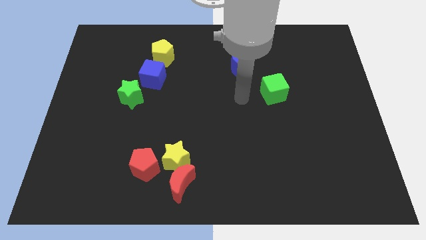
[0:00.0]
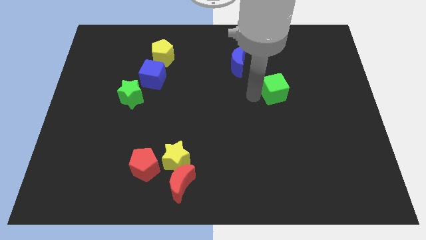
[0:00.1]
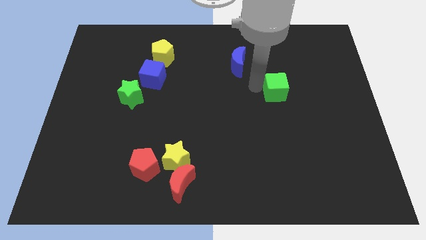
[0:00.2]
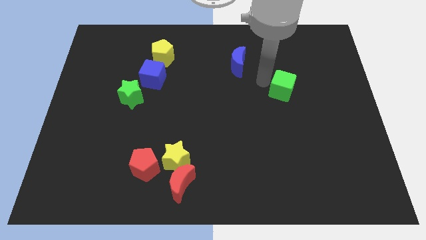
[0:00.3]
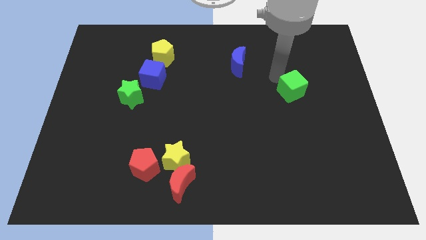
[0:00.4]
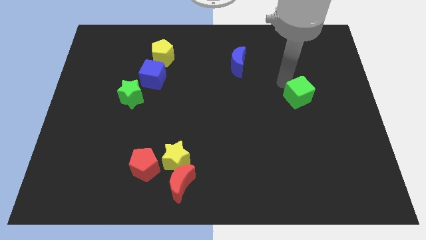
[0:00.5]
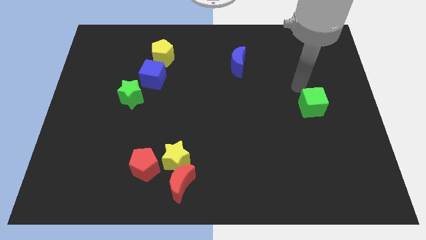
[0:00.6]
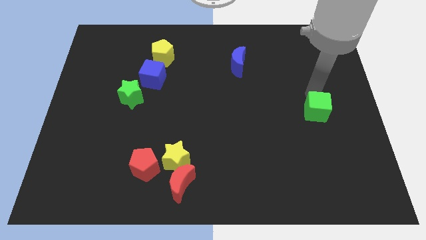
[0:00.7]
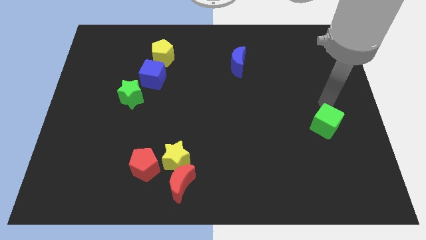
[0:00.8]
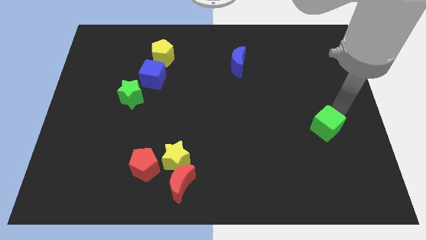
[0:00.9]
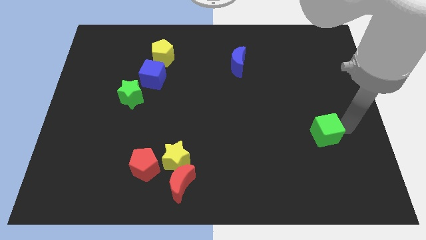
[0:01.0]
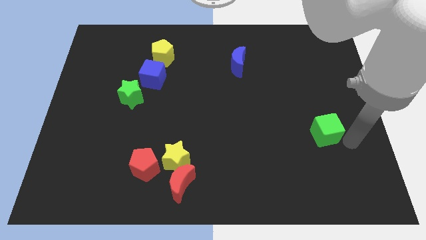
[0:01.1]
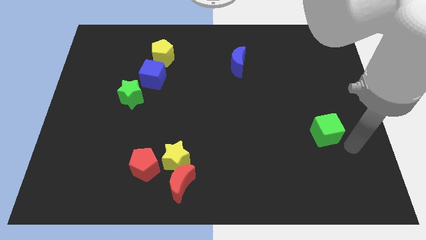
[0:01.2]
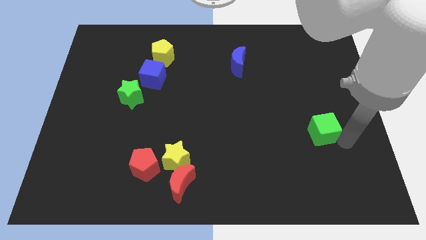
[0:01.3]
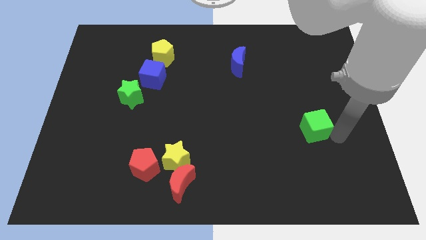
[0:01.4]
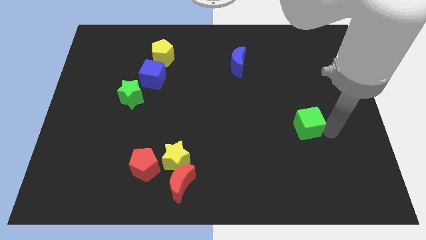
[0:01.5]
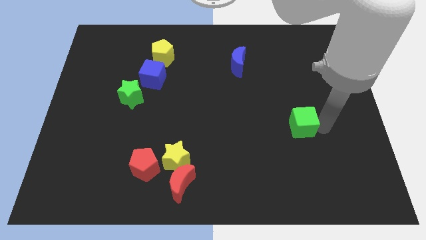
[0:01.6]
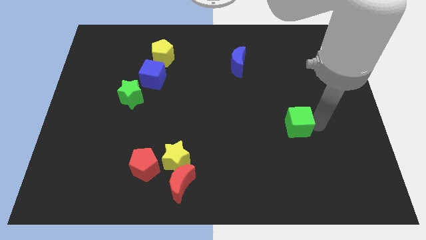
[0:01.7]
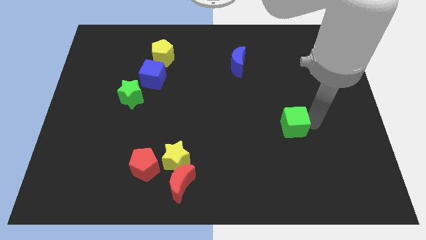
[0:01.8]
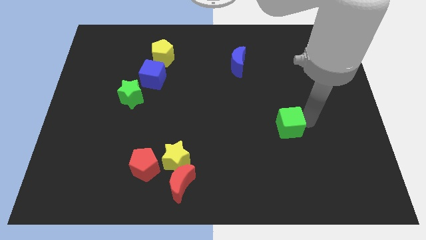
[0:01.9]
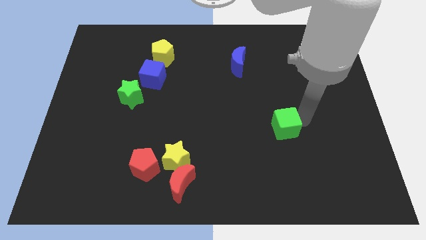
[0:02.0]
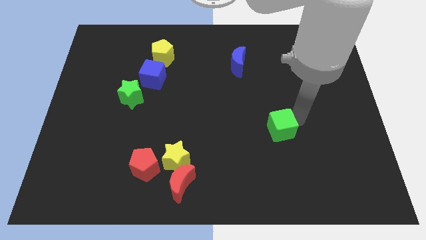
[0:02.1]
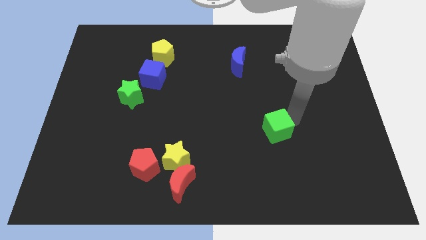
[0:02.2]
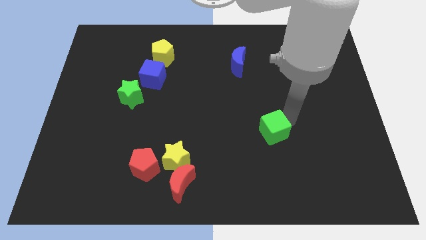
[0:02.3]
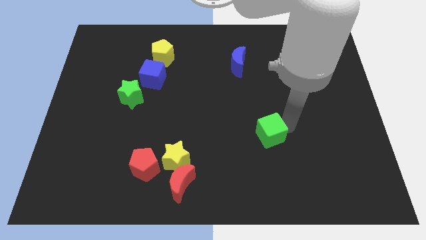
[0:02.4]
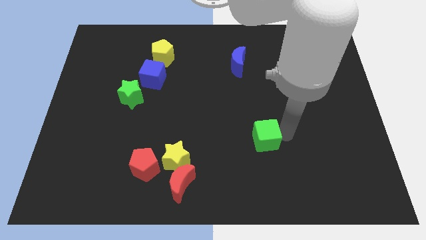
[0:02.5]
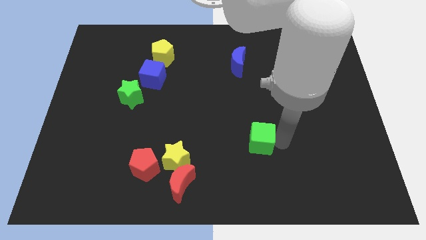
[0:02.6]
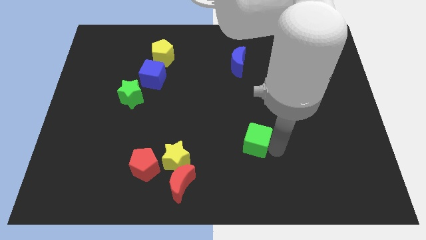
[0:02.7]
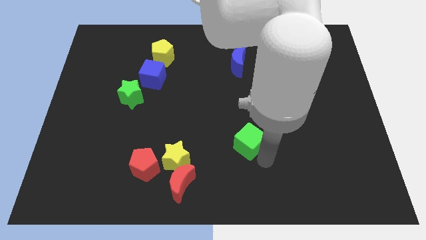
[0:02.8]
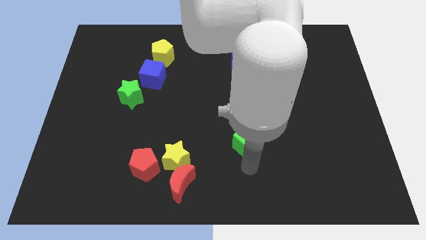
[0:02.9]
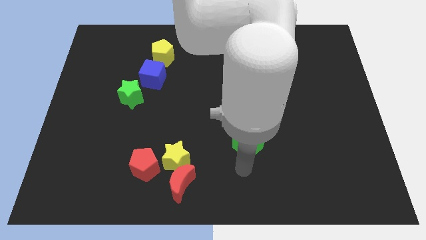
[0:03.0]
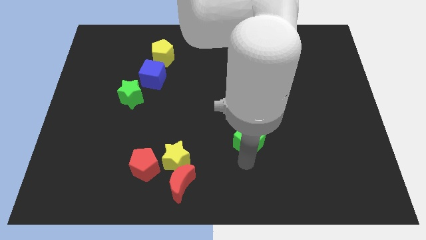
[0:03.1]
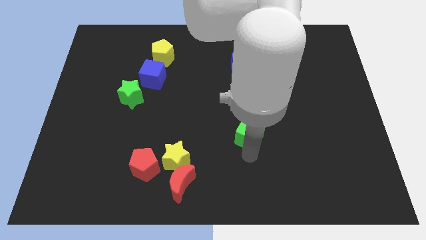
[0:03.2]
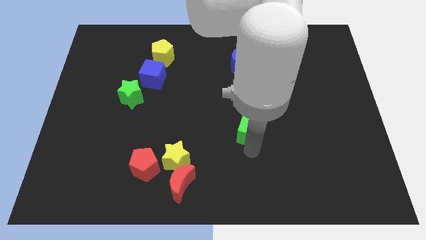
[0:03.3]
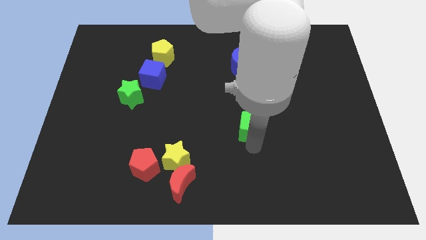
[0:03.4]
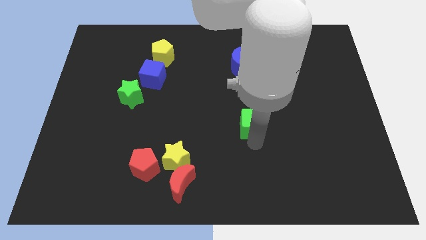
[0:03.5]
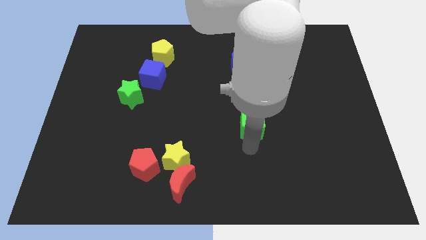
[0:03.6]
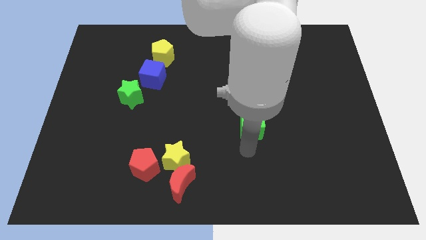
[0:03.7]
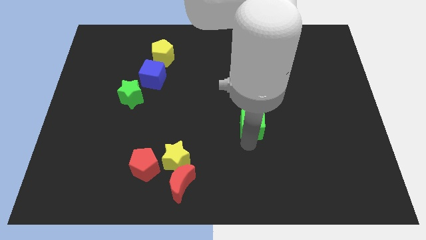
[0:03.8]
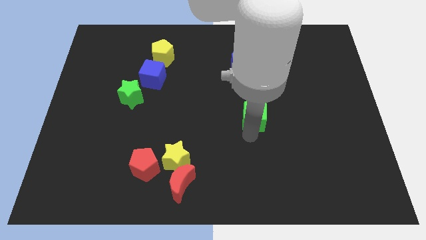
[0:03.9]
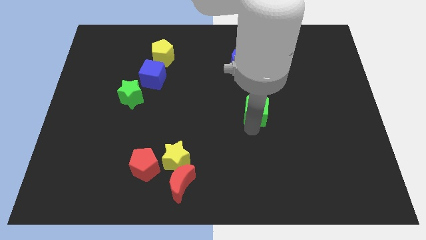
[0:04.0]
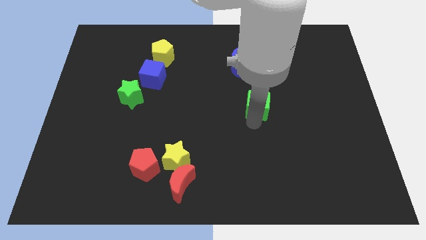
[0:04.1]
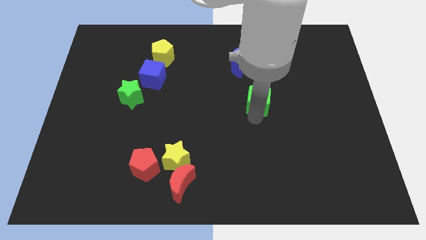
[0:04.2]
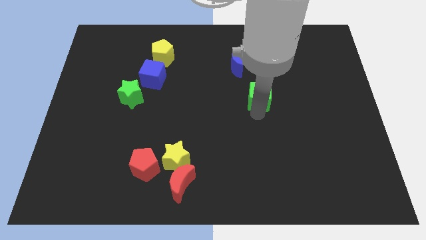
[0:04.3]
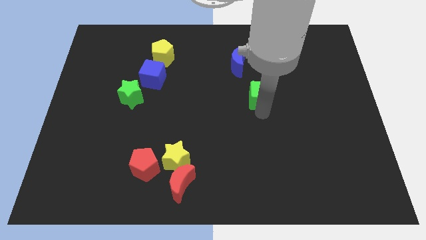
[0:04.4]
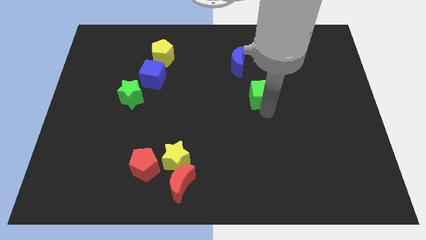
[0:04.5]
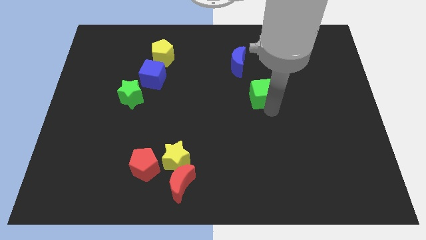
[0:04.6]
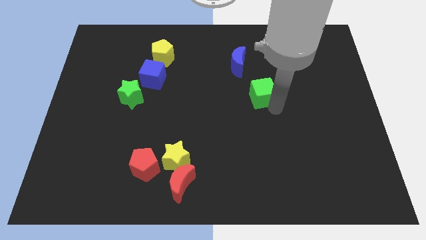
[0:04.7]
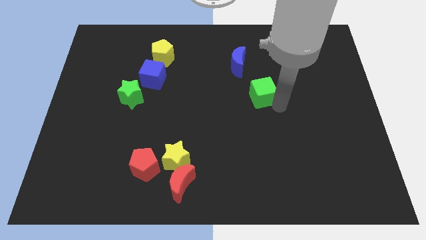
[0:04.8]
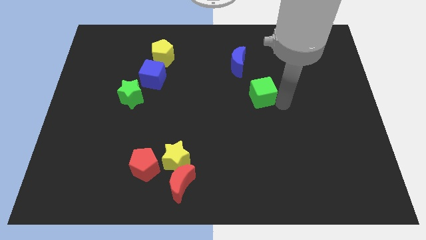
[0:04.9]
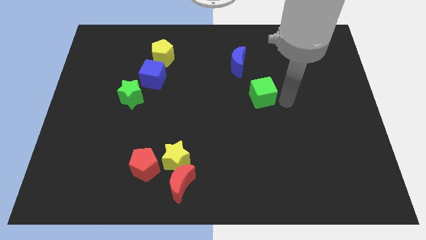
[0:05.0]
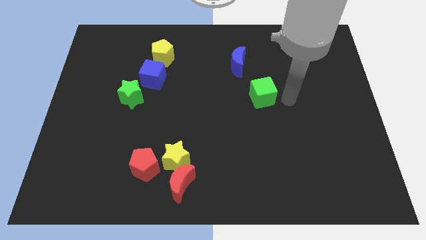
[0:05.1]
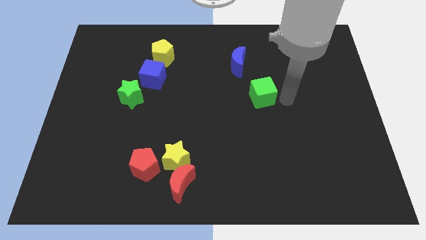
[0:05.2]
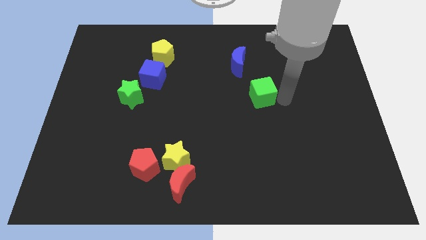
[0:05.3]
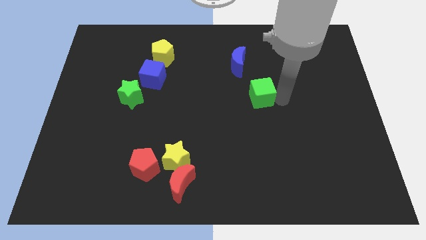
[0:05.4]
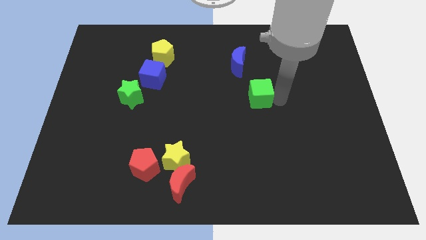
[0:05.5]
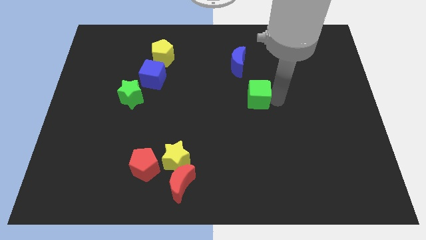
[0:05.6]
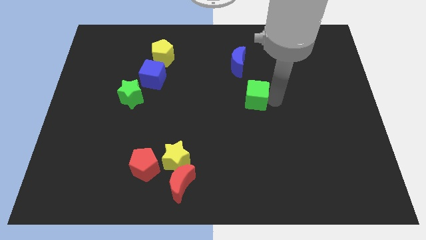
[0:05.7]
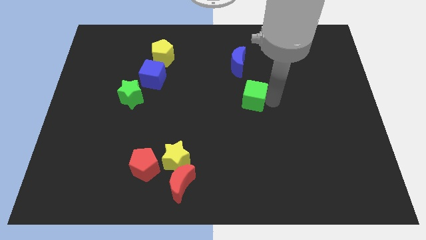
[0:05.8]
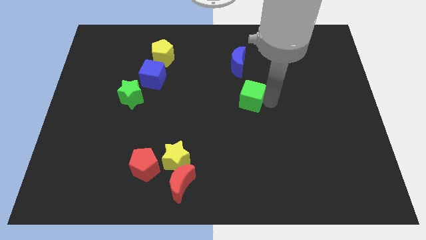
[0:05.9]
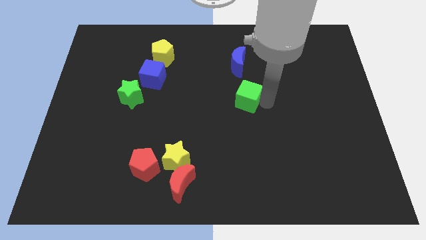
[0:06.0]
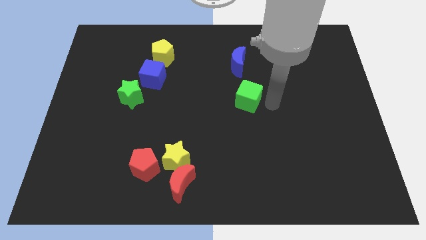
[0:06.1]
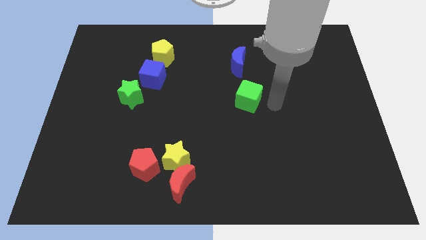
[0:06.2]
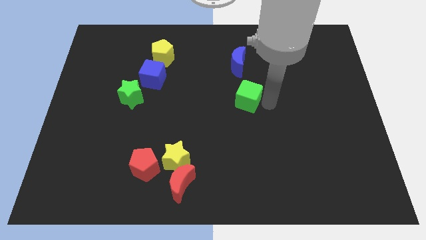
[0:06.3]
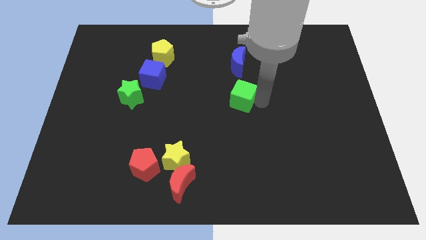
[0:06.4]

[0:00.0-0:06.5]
slightly move the green cube left

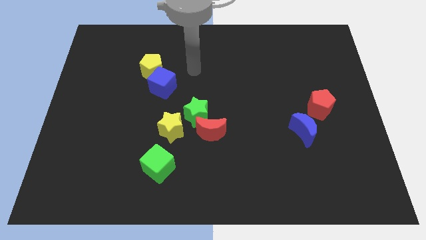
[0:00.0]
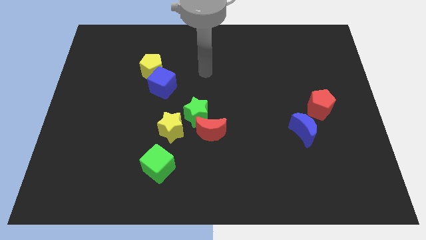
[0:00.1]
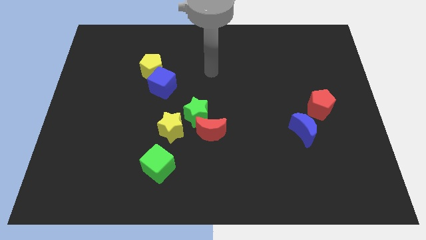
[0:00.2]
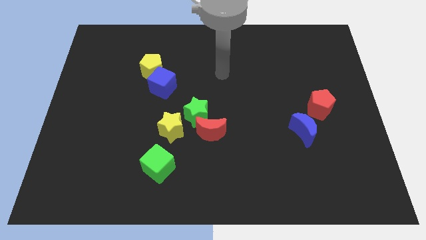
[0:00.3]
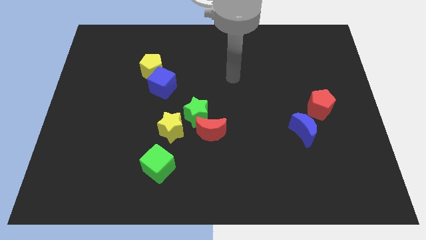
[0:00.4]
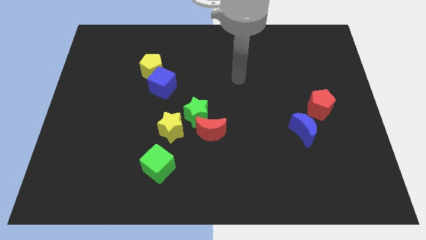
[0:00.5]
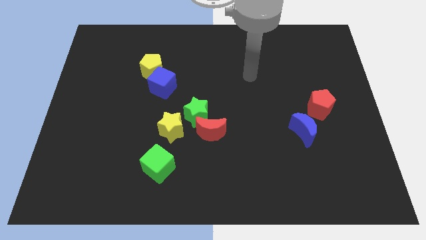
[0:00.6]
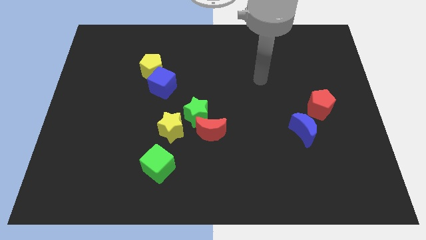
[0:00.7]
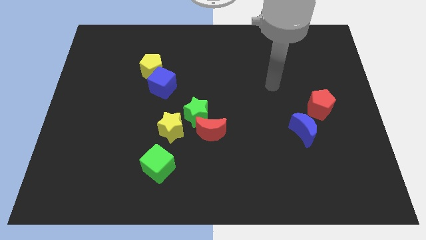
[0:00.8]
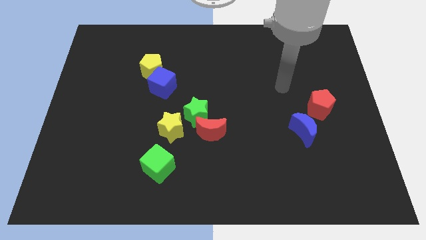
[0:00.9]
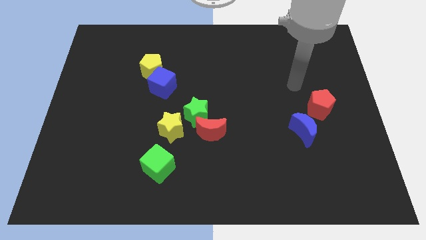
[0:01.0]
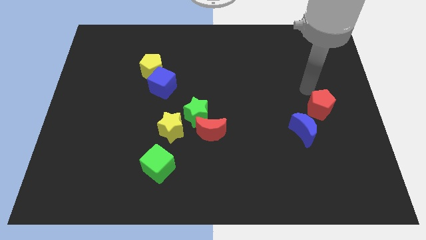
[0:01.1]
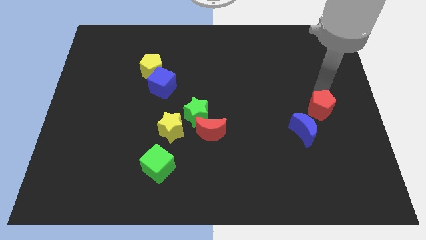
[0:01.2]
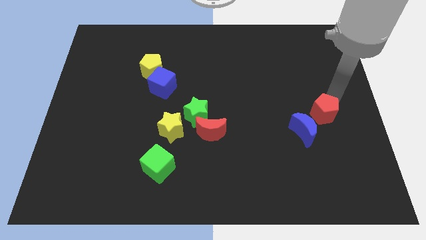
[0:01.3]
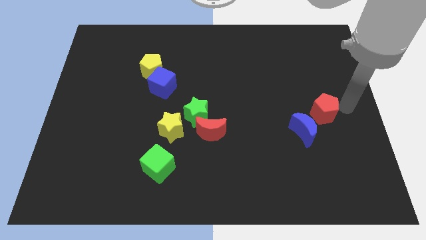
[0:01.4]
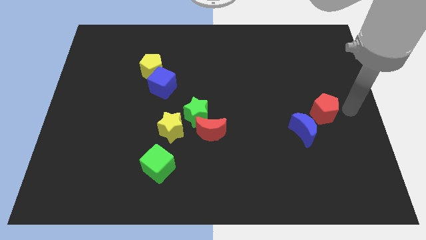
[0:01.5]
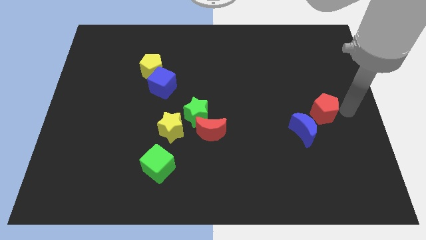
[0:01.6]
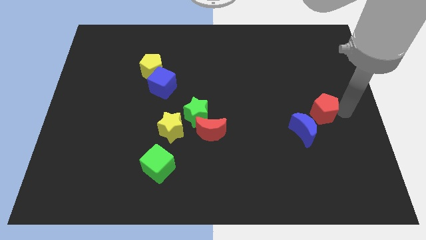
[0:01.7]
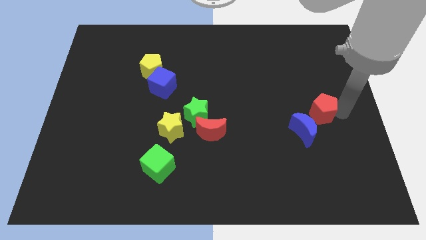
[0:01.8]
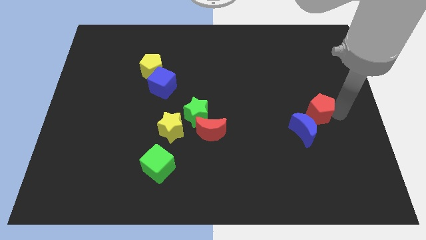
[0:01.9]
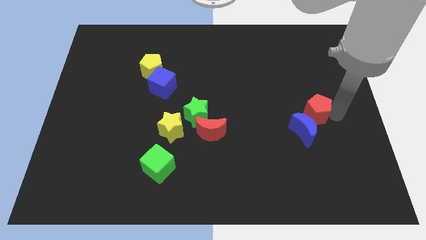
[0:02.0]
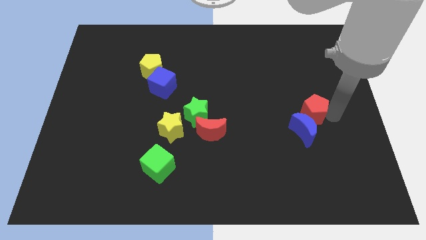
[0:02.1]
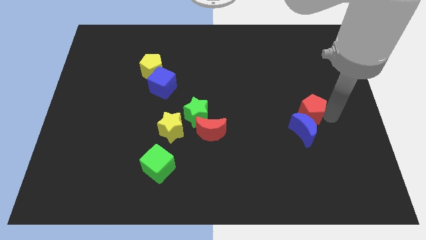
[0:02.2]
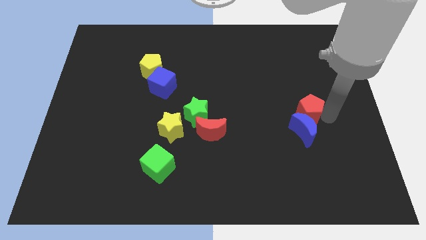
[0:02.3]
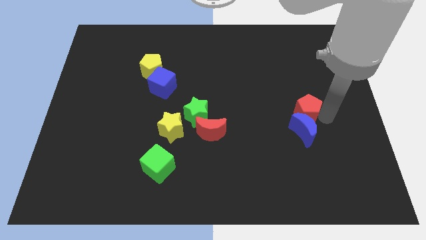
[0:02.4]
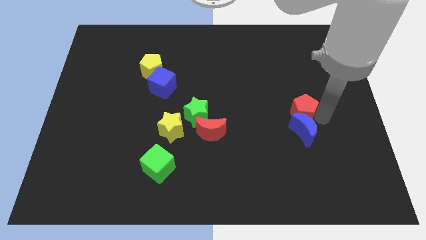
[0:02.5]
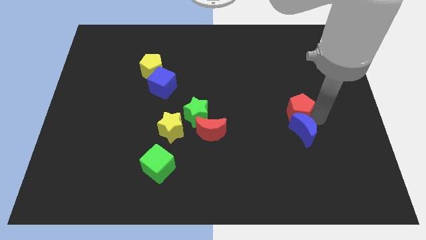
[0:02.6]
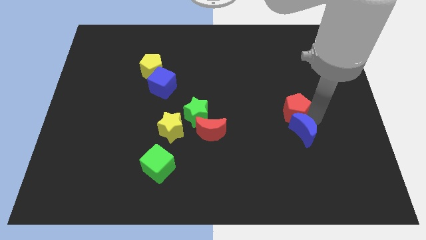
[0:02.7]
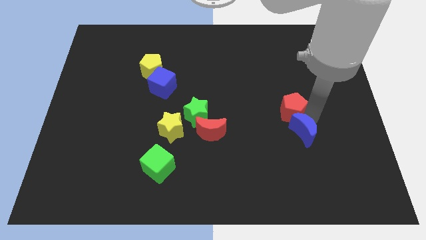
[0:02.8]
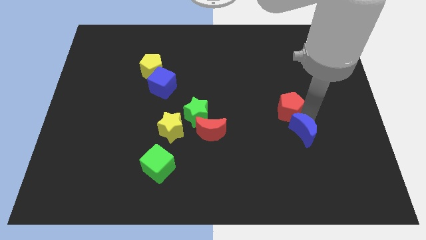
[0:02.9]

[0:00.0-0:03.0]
push the red pentagon somewhat to the left
